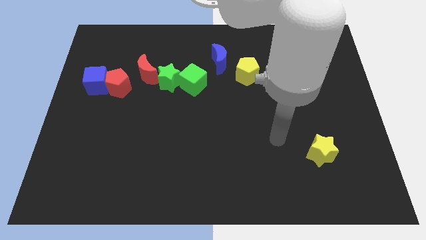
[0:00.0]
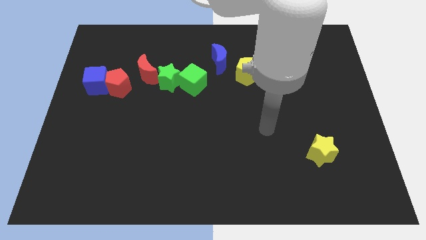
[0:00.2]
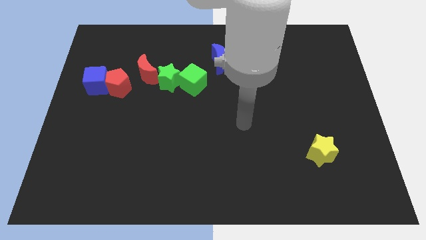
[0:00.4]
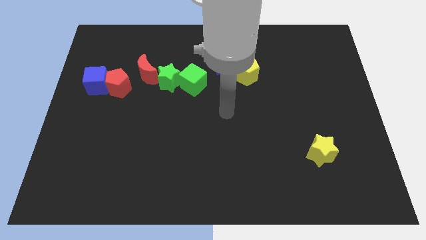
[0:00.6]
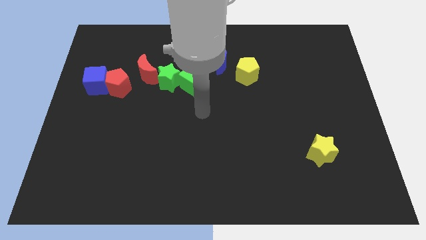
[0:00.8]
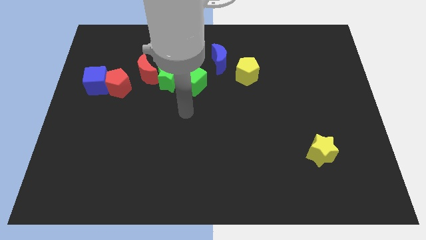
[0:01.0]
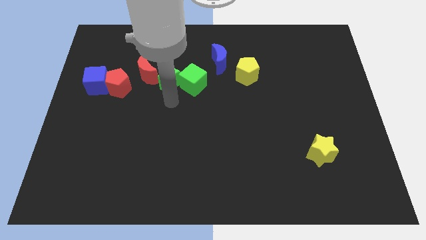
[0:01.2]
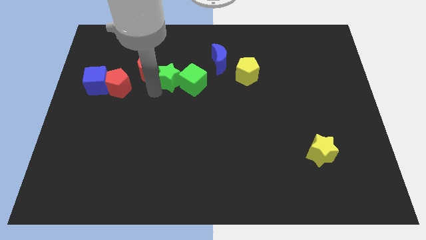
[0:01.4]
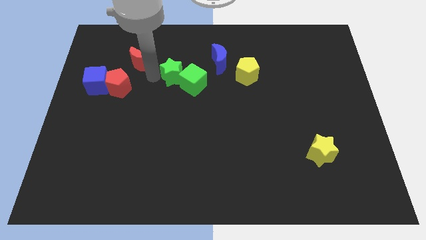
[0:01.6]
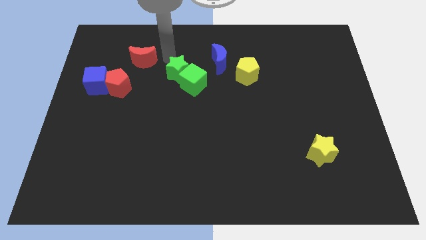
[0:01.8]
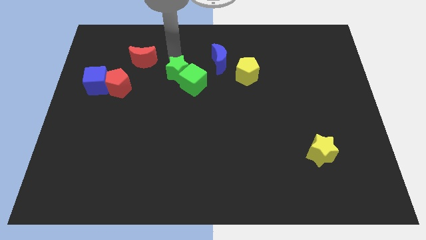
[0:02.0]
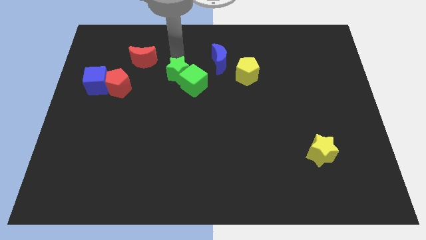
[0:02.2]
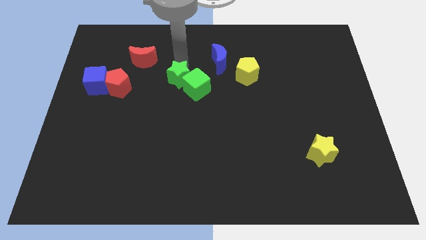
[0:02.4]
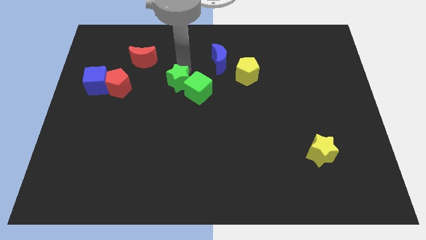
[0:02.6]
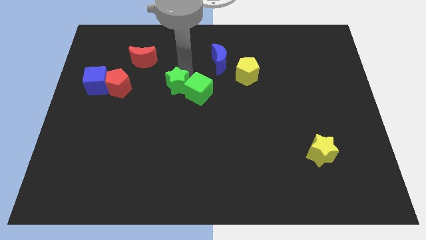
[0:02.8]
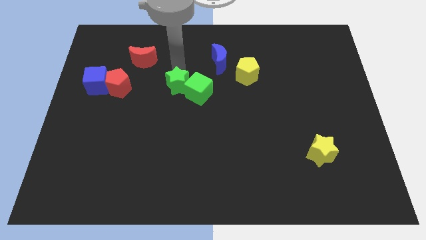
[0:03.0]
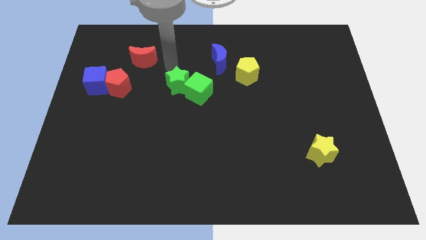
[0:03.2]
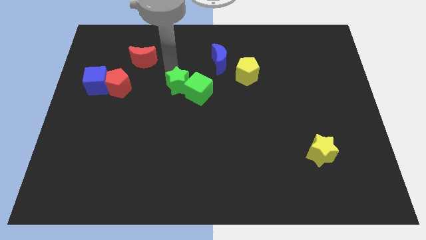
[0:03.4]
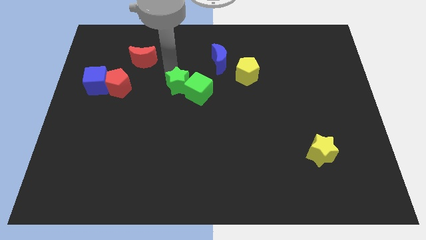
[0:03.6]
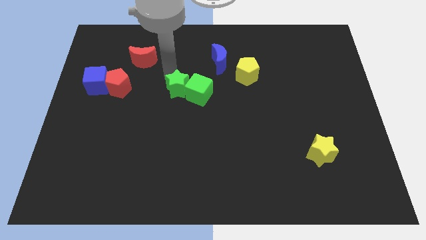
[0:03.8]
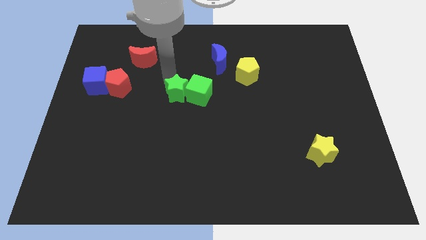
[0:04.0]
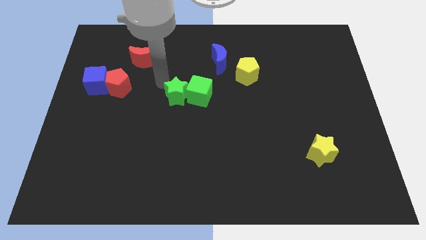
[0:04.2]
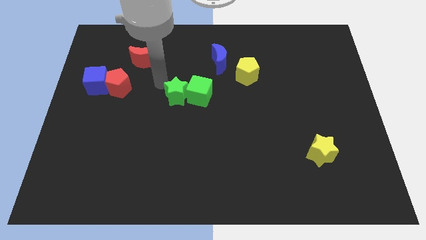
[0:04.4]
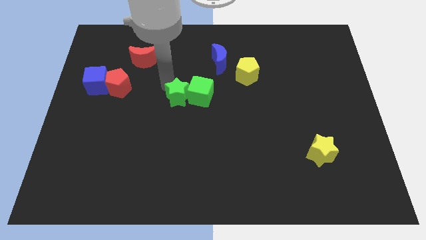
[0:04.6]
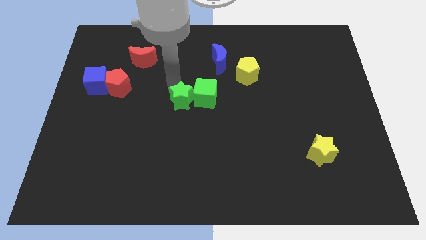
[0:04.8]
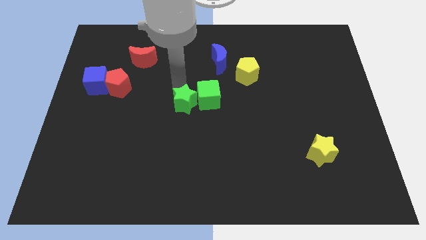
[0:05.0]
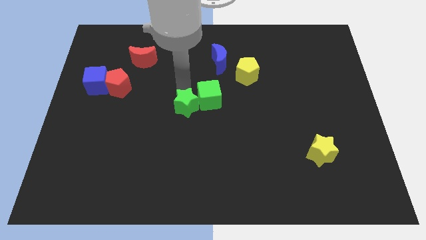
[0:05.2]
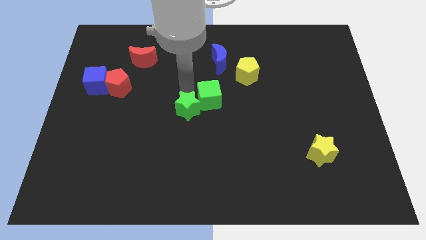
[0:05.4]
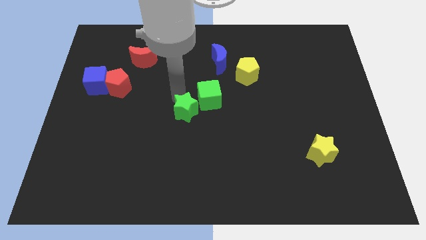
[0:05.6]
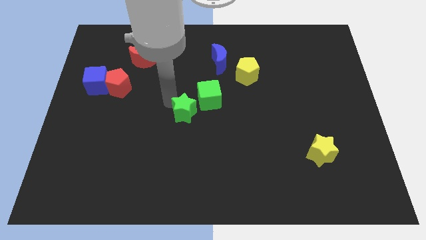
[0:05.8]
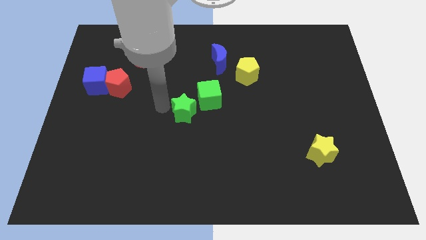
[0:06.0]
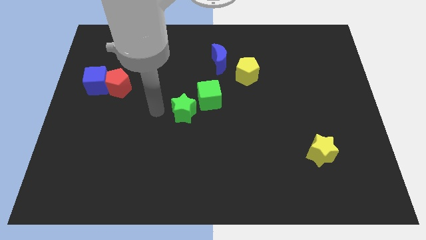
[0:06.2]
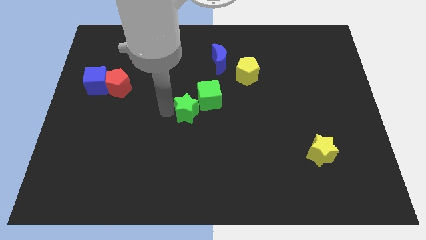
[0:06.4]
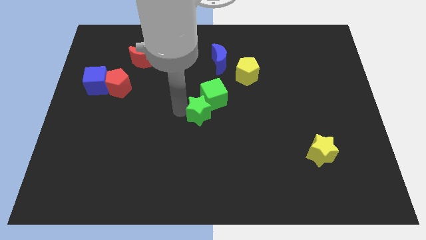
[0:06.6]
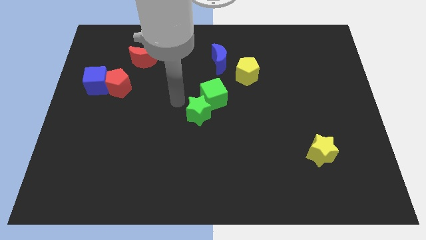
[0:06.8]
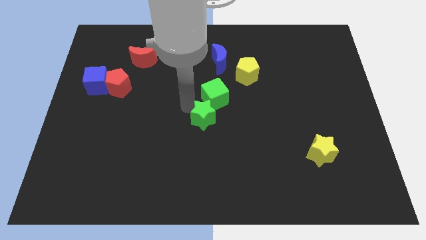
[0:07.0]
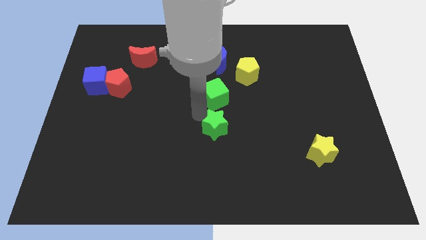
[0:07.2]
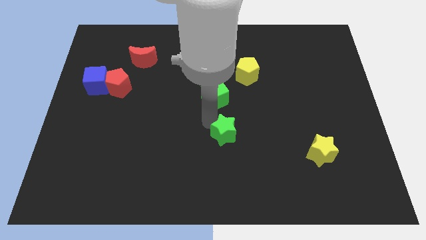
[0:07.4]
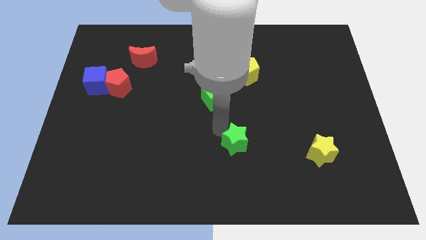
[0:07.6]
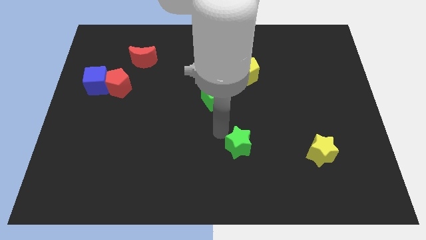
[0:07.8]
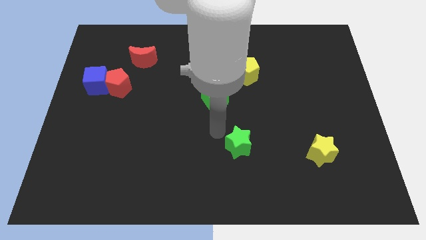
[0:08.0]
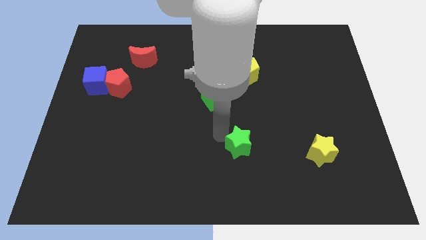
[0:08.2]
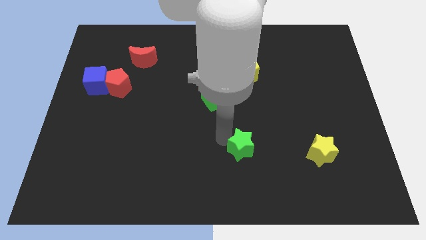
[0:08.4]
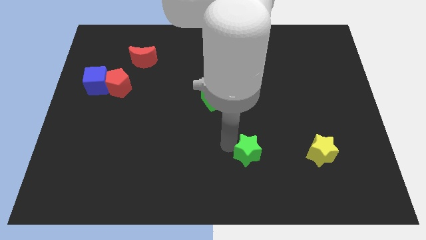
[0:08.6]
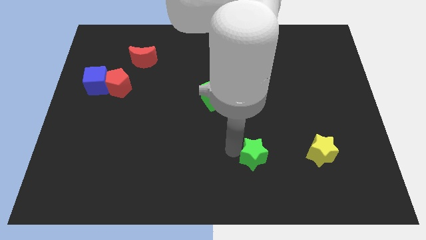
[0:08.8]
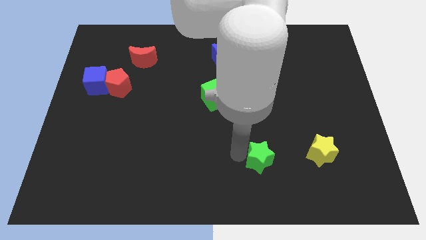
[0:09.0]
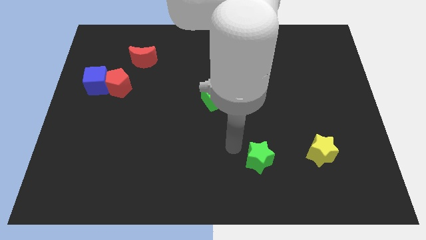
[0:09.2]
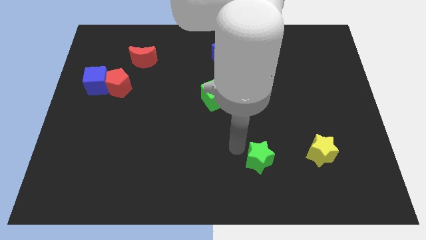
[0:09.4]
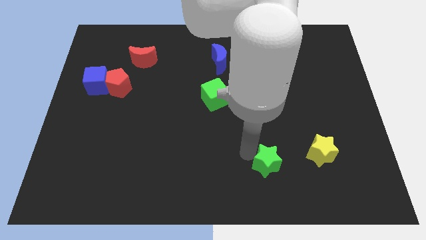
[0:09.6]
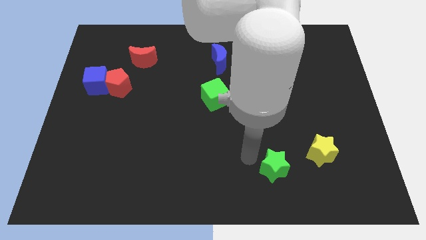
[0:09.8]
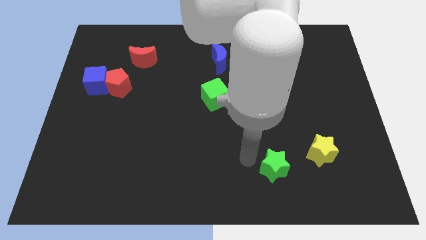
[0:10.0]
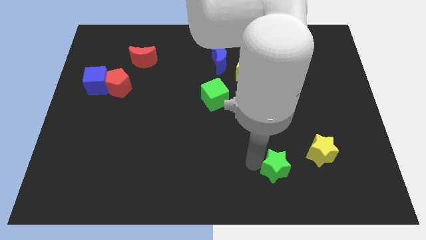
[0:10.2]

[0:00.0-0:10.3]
push the green star diagonally down and to the left of the yellow star

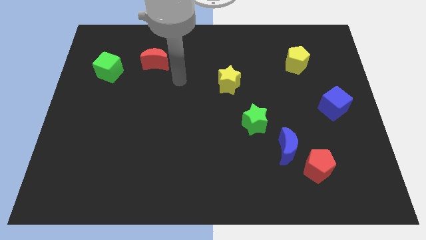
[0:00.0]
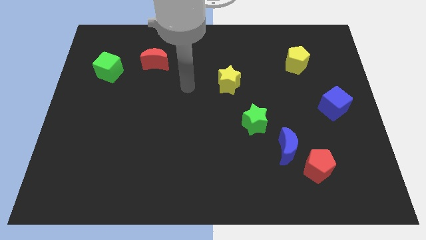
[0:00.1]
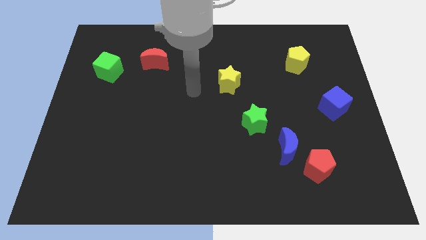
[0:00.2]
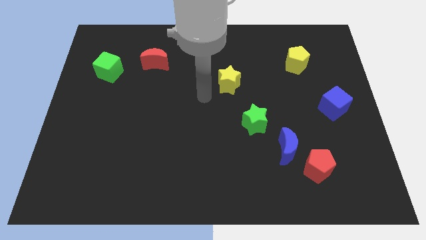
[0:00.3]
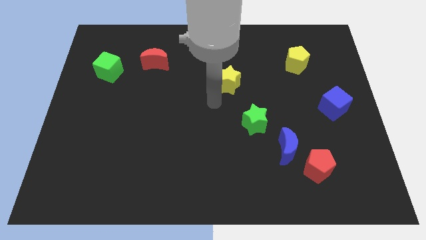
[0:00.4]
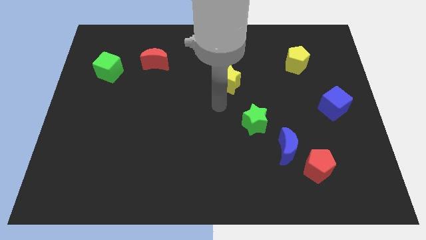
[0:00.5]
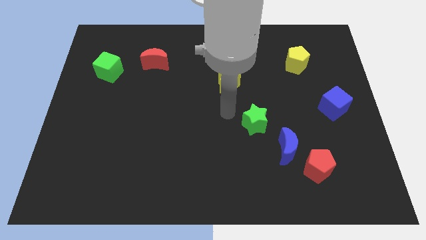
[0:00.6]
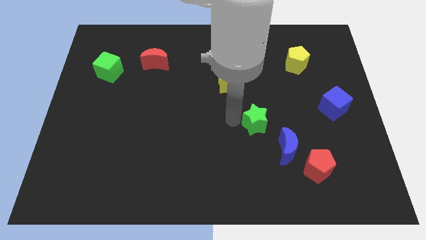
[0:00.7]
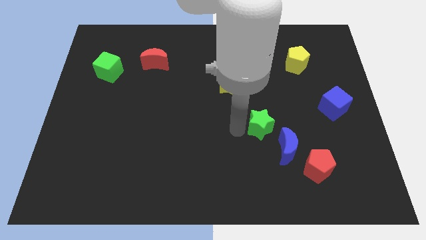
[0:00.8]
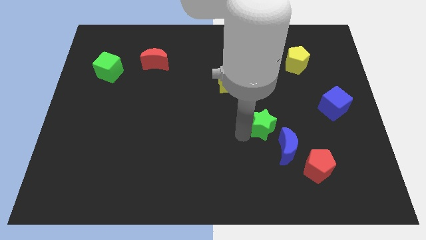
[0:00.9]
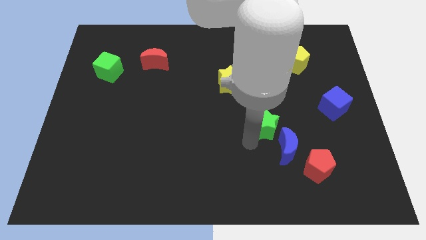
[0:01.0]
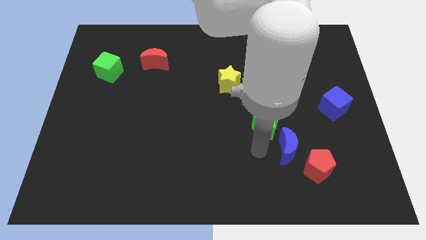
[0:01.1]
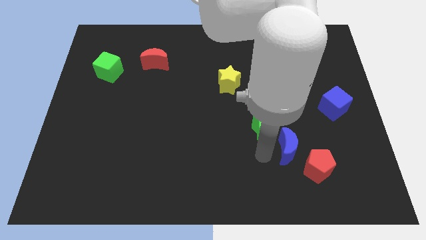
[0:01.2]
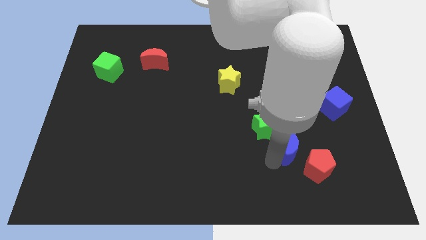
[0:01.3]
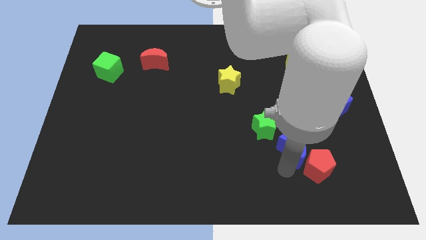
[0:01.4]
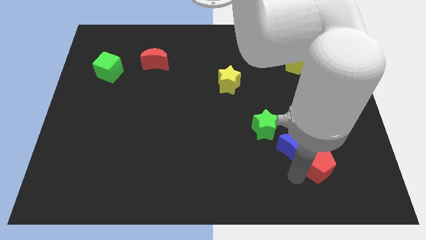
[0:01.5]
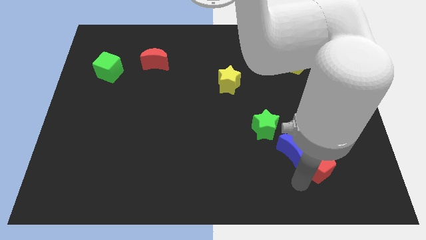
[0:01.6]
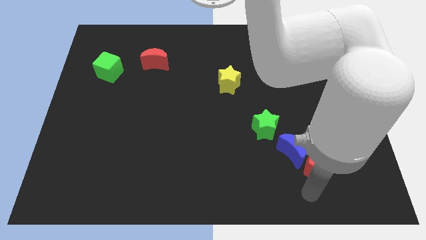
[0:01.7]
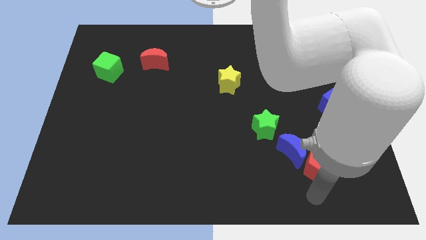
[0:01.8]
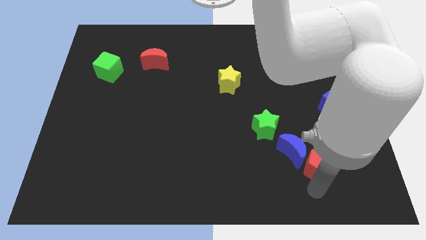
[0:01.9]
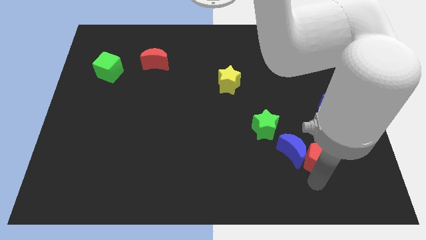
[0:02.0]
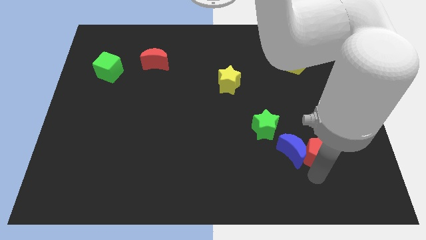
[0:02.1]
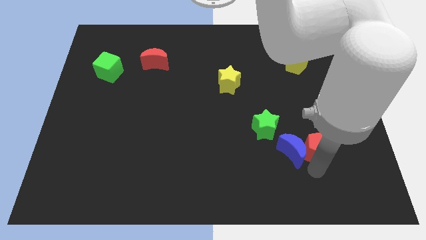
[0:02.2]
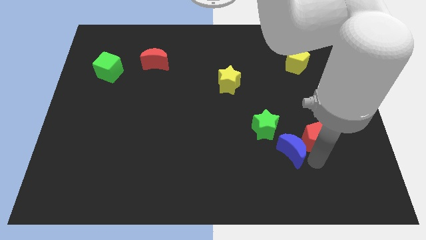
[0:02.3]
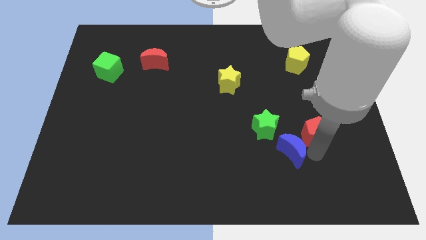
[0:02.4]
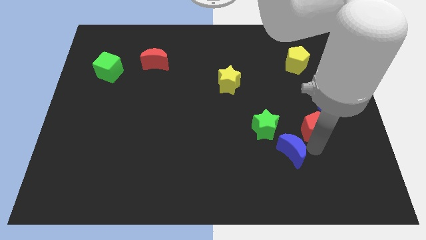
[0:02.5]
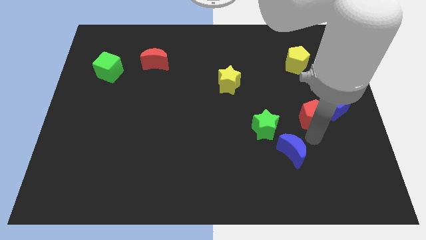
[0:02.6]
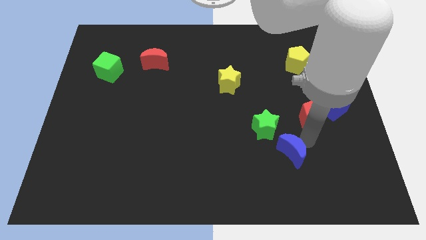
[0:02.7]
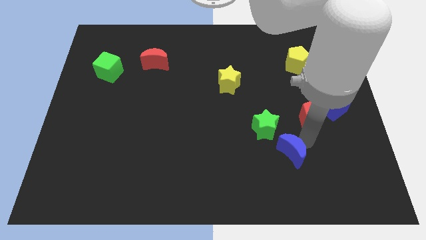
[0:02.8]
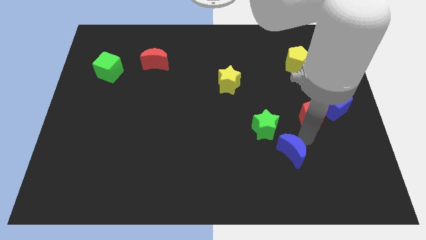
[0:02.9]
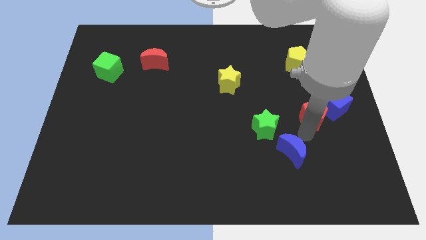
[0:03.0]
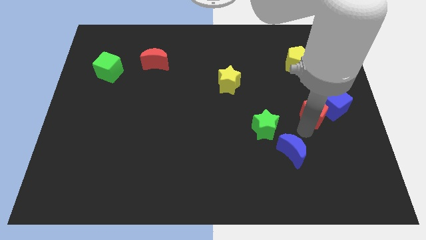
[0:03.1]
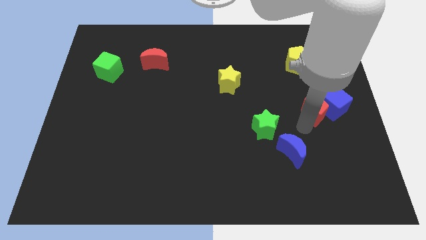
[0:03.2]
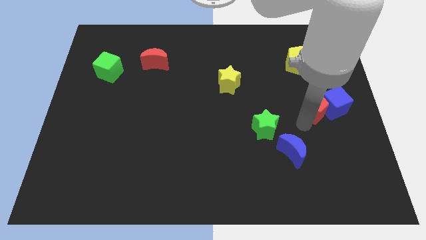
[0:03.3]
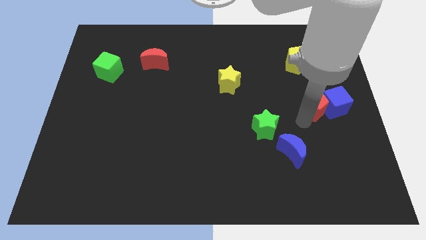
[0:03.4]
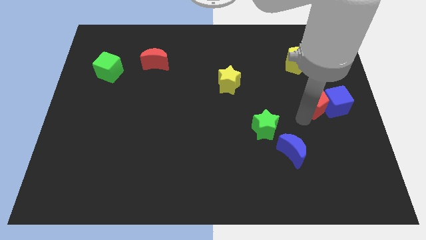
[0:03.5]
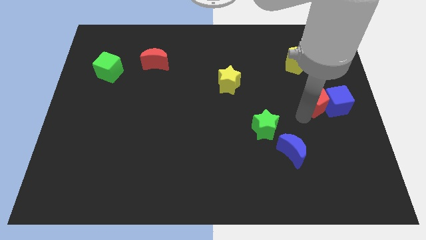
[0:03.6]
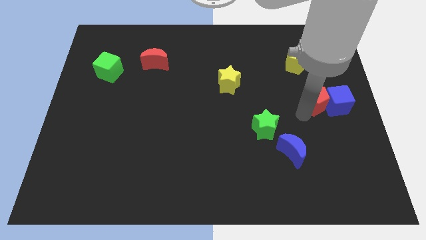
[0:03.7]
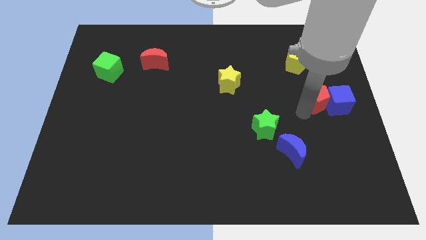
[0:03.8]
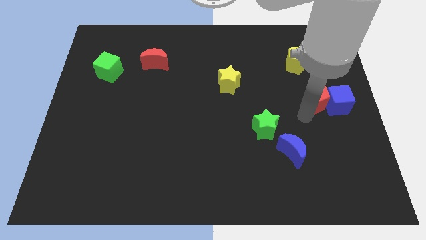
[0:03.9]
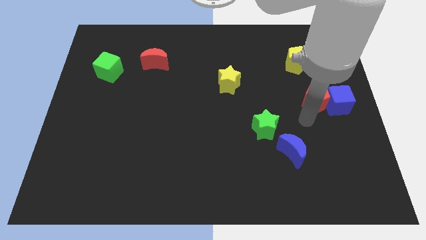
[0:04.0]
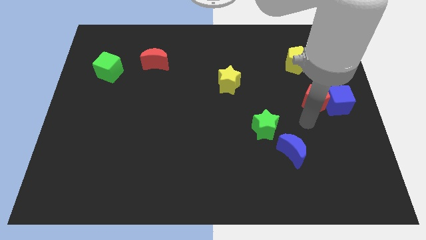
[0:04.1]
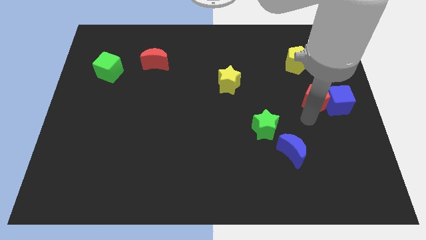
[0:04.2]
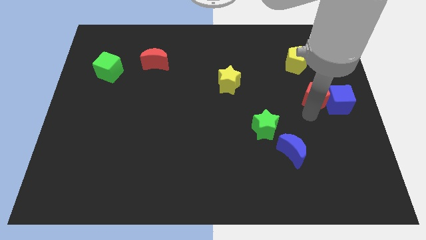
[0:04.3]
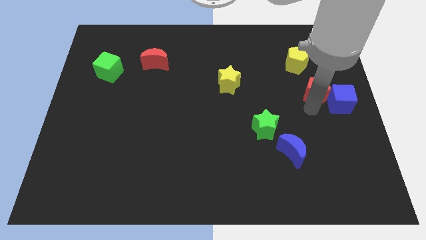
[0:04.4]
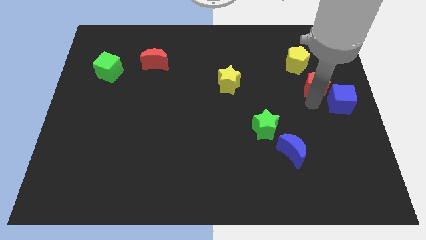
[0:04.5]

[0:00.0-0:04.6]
move the red pentagon to the bottom right of the yellow pentagon
